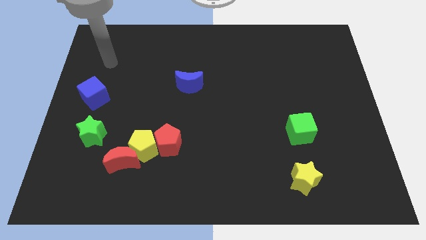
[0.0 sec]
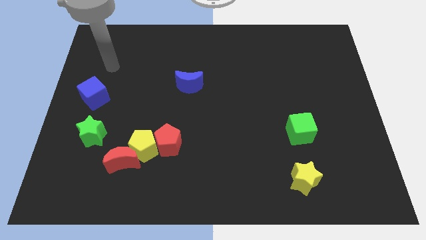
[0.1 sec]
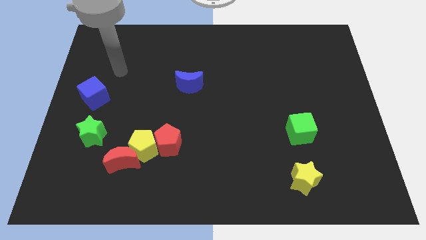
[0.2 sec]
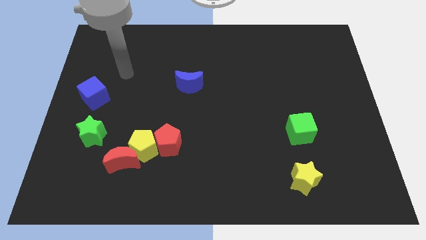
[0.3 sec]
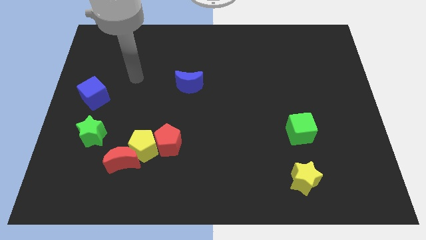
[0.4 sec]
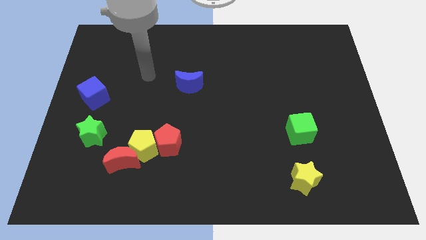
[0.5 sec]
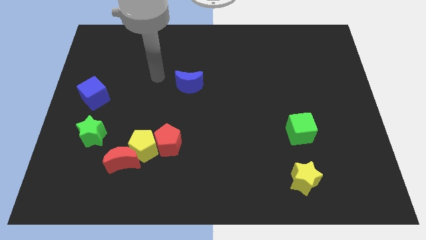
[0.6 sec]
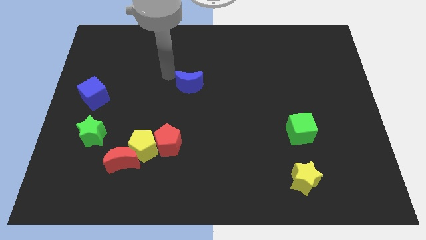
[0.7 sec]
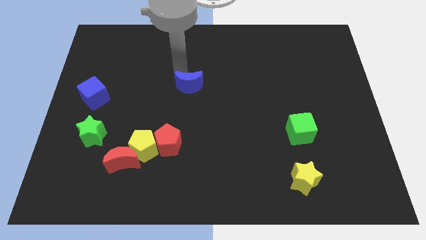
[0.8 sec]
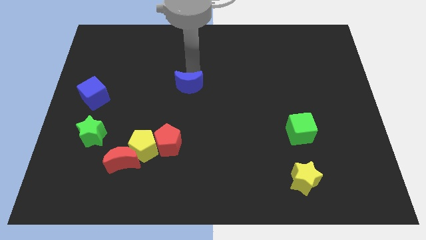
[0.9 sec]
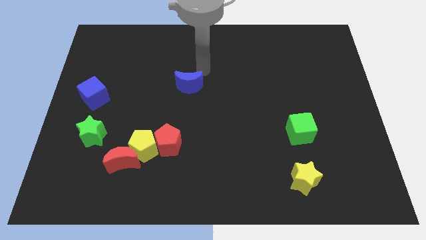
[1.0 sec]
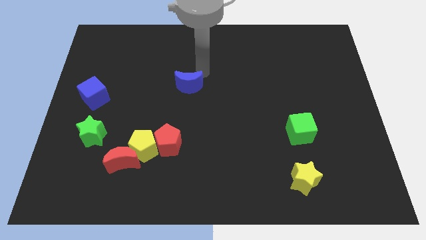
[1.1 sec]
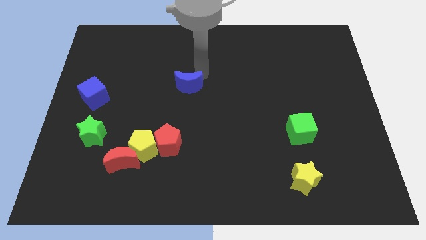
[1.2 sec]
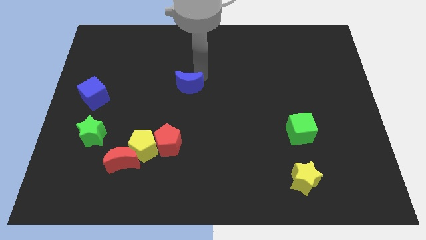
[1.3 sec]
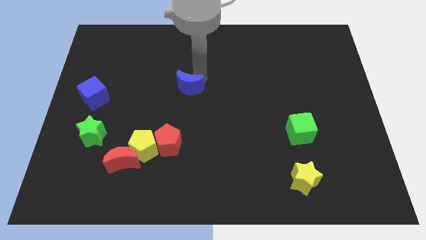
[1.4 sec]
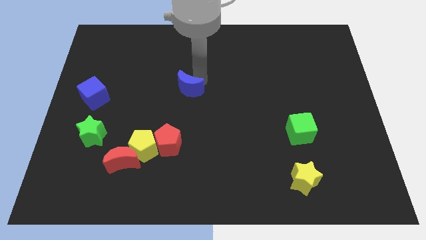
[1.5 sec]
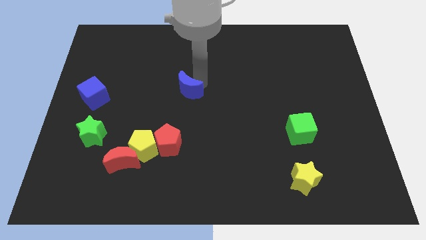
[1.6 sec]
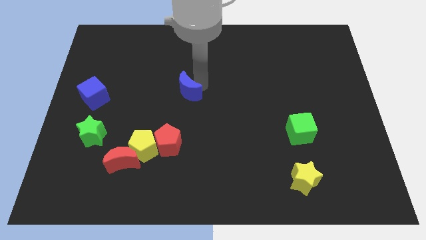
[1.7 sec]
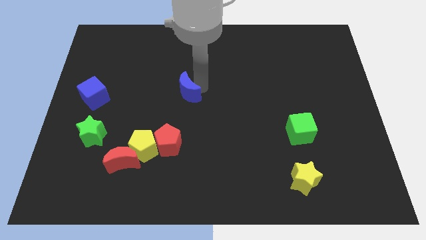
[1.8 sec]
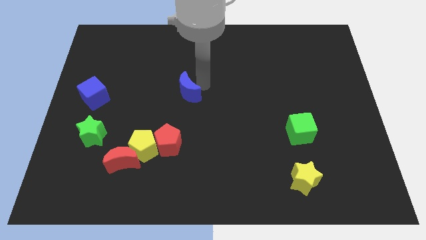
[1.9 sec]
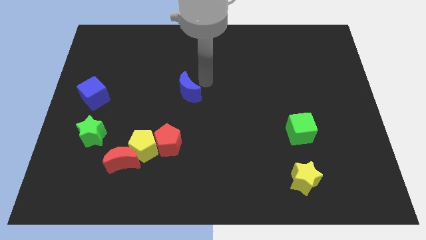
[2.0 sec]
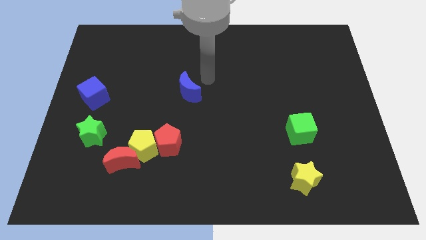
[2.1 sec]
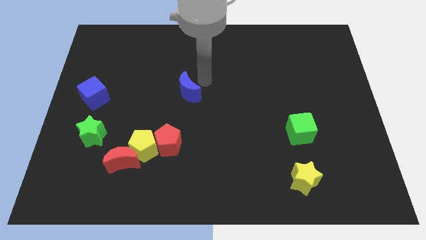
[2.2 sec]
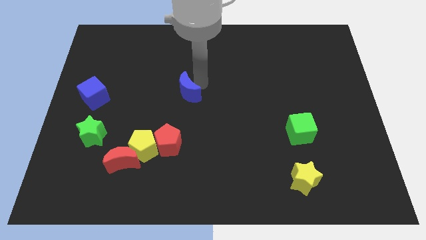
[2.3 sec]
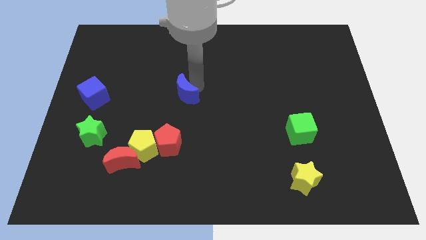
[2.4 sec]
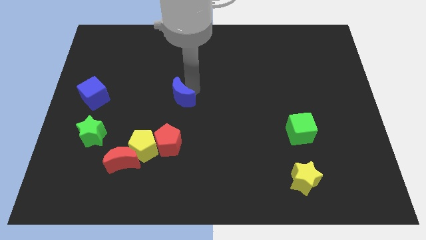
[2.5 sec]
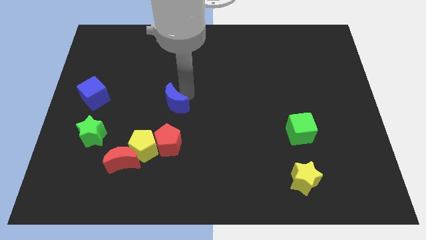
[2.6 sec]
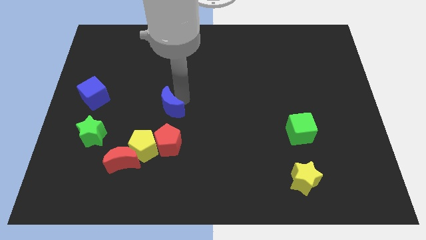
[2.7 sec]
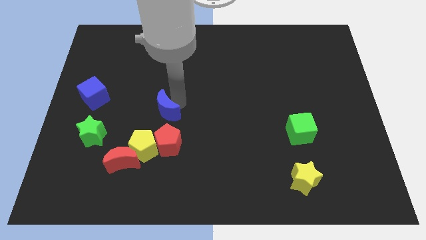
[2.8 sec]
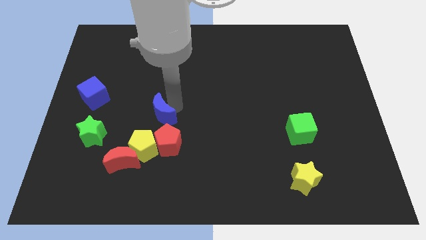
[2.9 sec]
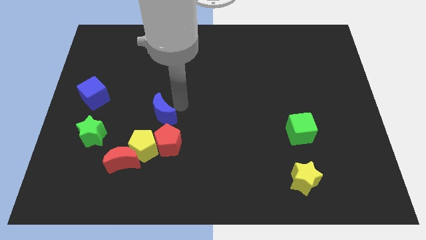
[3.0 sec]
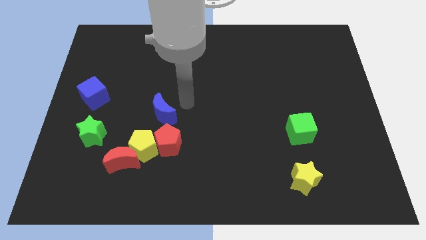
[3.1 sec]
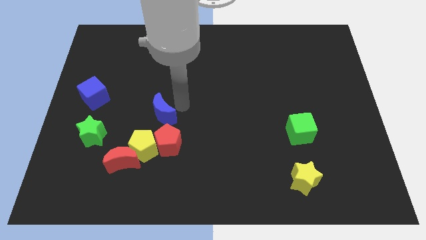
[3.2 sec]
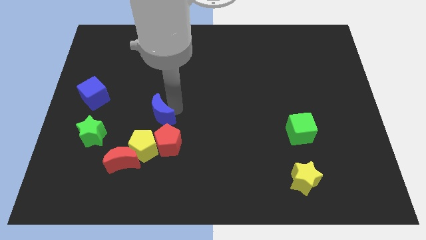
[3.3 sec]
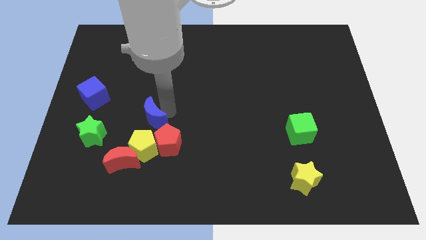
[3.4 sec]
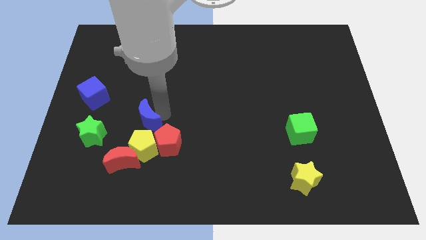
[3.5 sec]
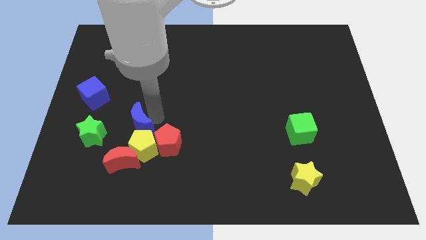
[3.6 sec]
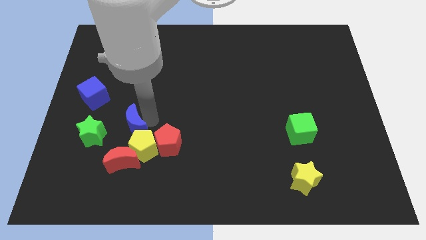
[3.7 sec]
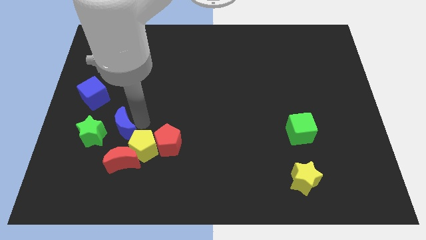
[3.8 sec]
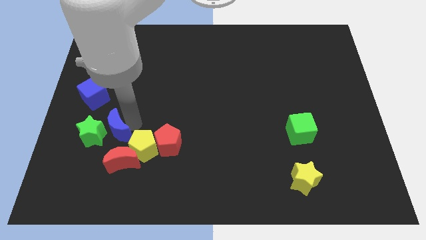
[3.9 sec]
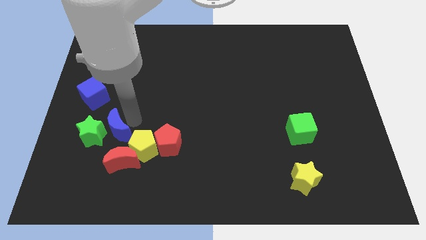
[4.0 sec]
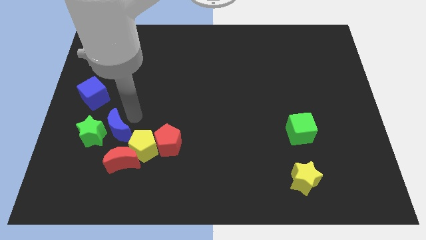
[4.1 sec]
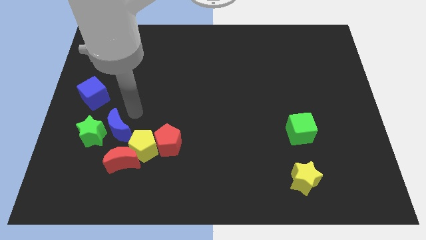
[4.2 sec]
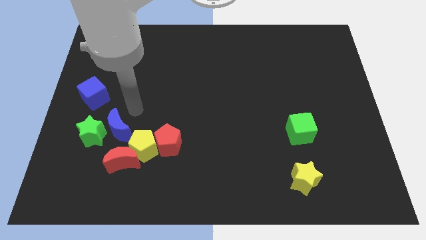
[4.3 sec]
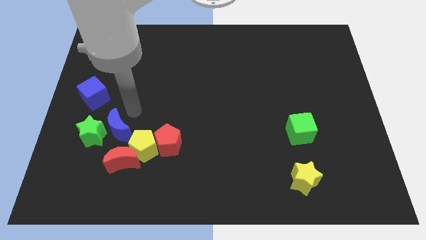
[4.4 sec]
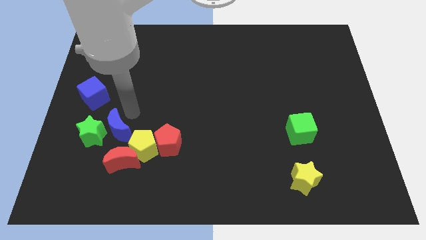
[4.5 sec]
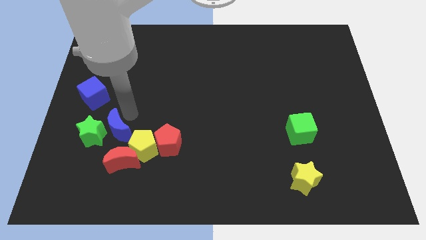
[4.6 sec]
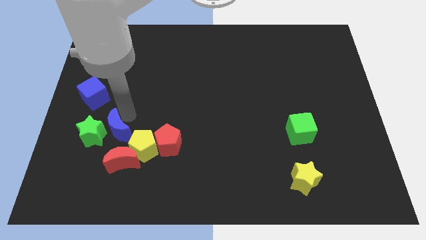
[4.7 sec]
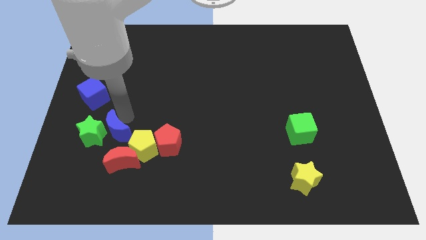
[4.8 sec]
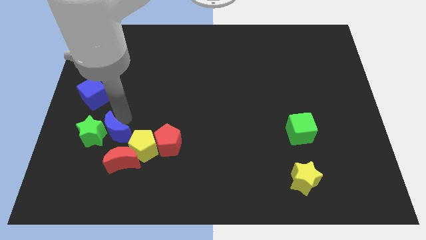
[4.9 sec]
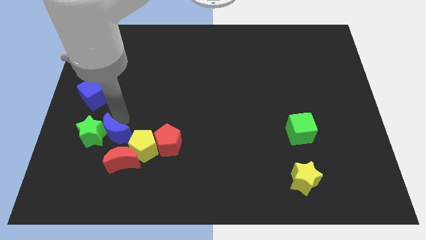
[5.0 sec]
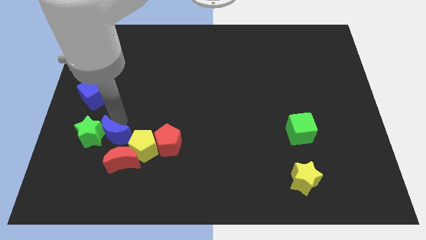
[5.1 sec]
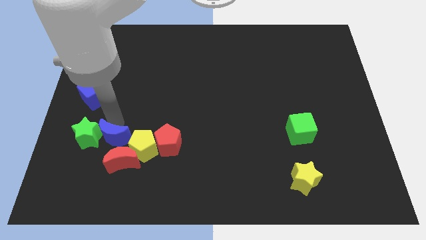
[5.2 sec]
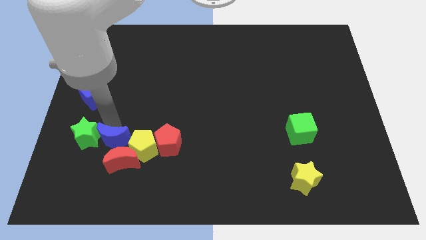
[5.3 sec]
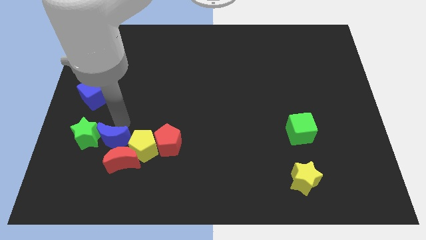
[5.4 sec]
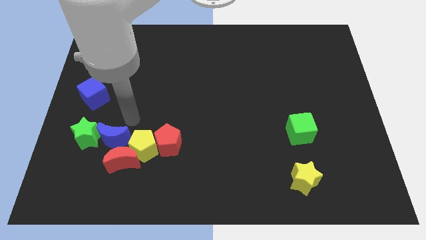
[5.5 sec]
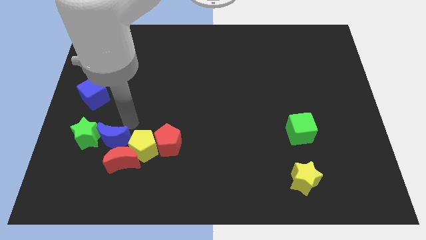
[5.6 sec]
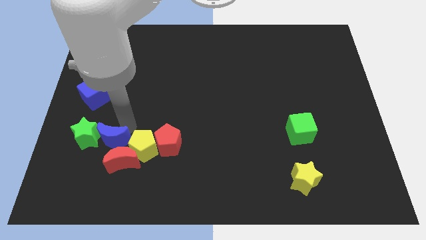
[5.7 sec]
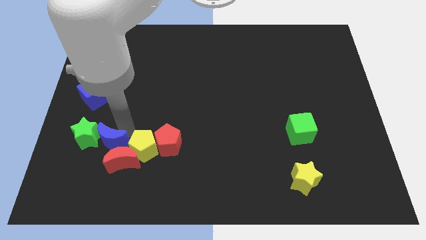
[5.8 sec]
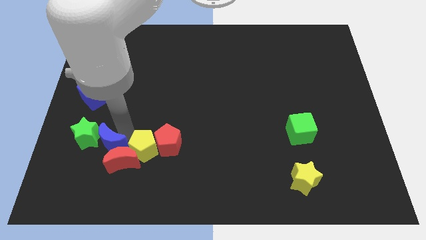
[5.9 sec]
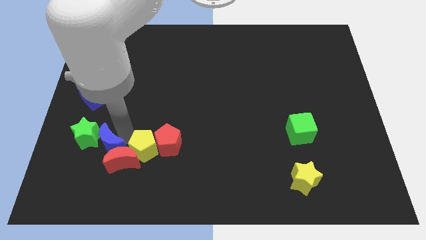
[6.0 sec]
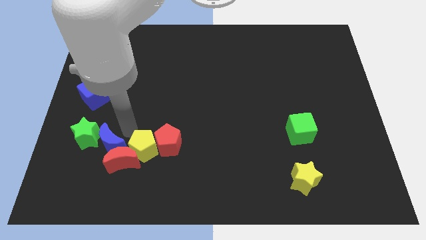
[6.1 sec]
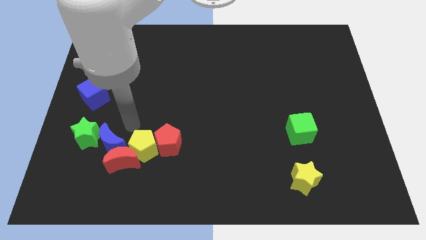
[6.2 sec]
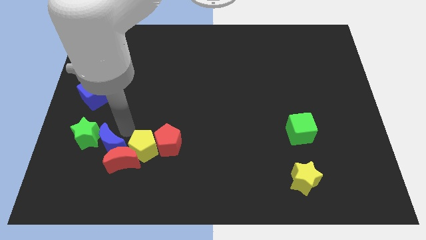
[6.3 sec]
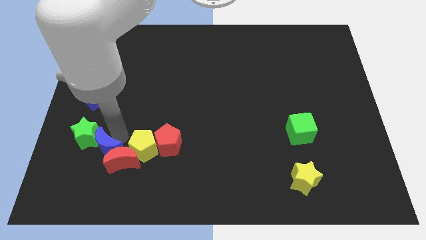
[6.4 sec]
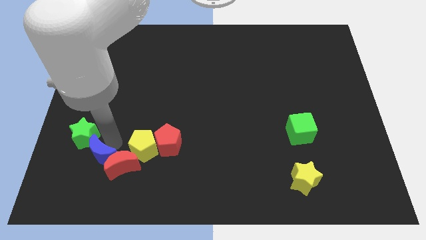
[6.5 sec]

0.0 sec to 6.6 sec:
slide the blue moon below the green star

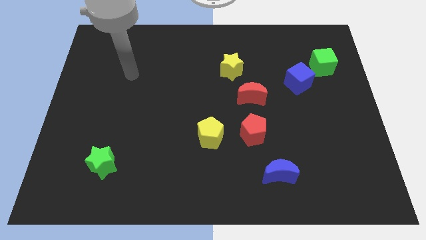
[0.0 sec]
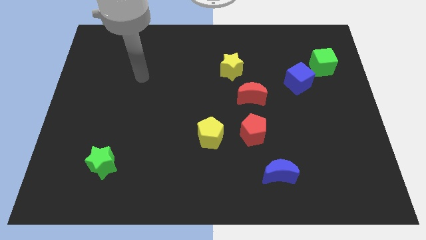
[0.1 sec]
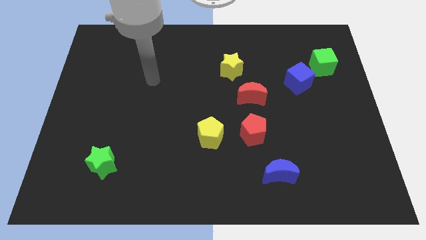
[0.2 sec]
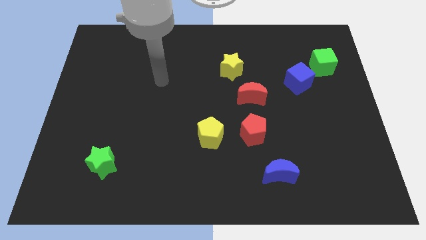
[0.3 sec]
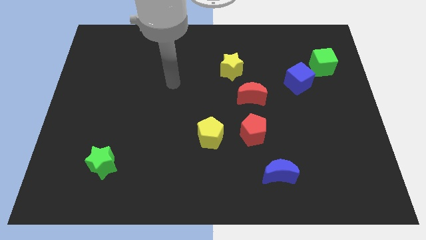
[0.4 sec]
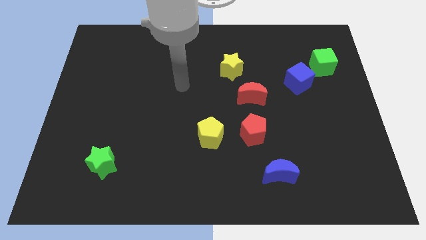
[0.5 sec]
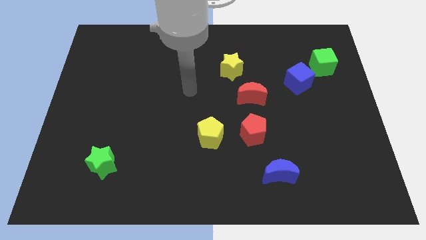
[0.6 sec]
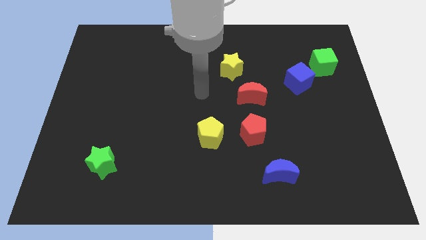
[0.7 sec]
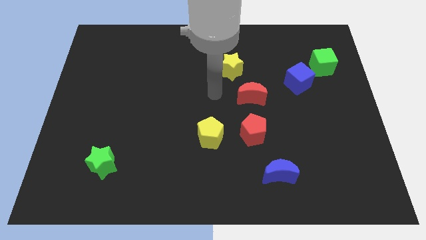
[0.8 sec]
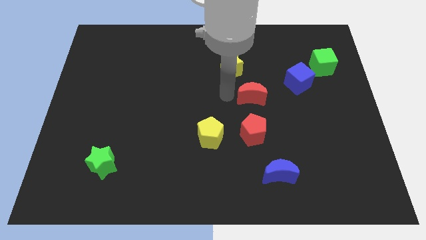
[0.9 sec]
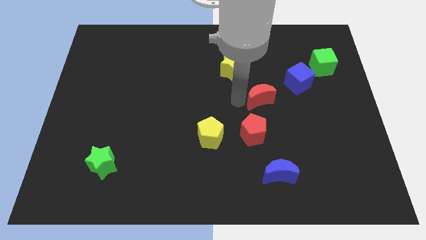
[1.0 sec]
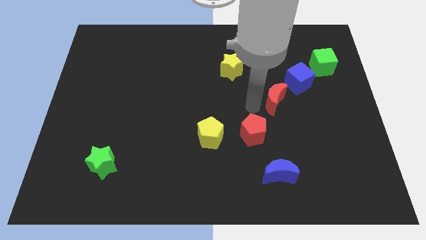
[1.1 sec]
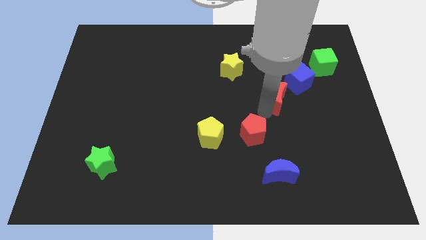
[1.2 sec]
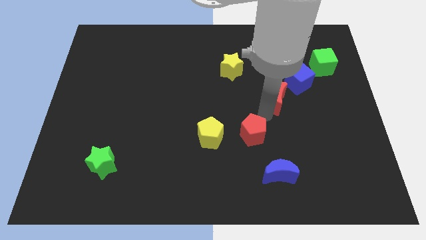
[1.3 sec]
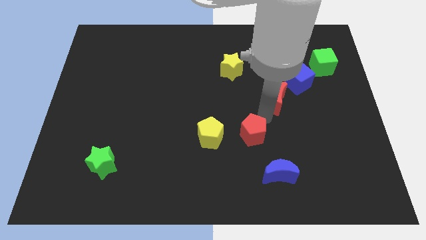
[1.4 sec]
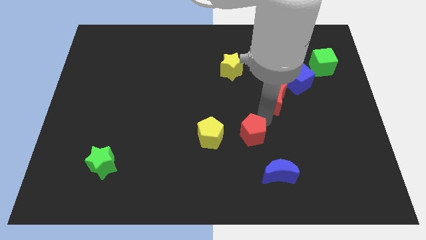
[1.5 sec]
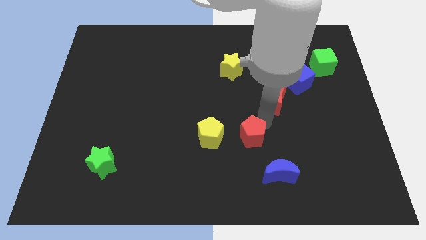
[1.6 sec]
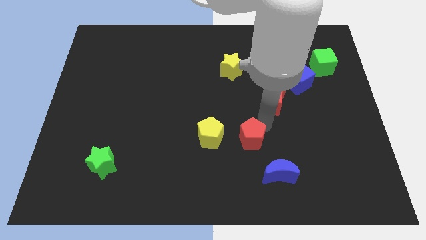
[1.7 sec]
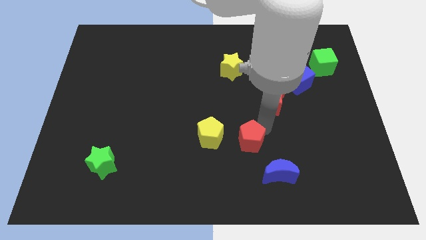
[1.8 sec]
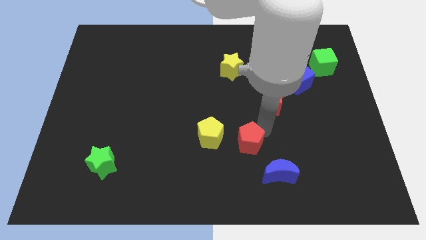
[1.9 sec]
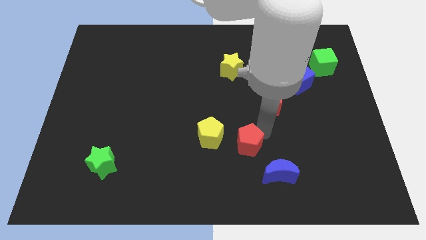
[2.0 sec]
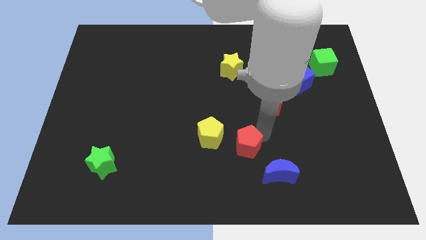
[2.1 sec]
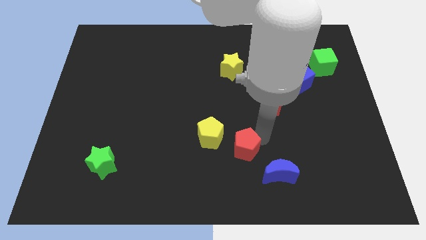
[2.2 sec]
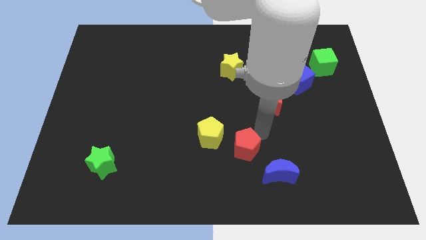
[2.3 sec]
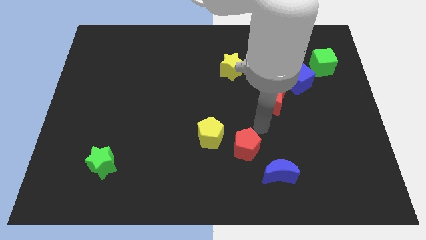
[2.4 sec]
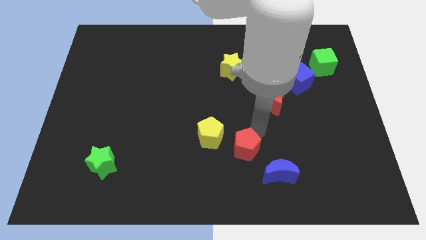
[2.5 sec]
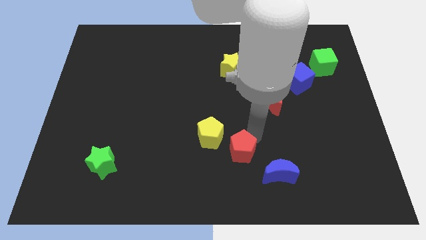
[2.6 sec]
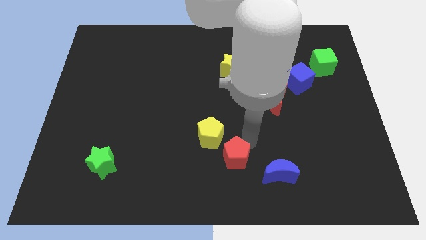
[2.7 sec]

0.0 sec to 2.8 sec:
move the red pentagon just left of the blue moon
